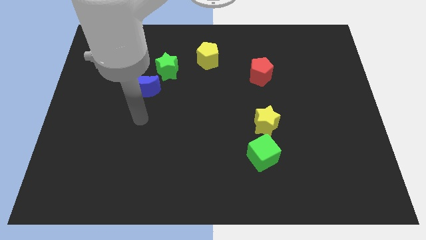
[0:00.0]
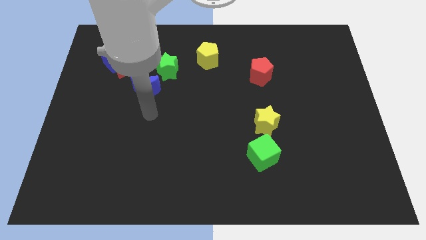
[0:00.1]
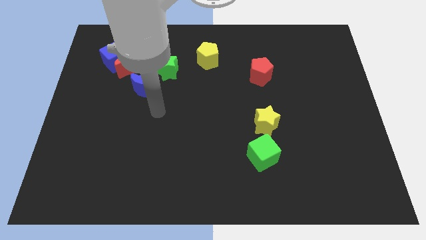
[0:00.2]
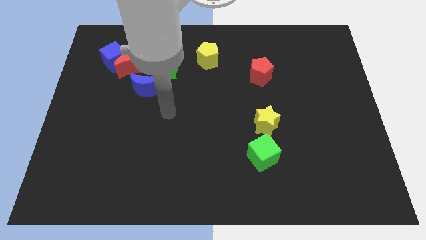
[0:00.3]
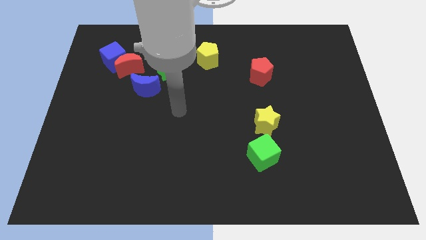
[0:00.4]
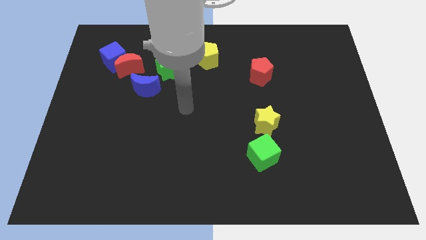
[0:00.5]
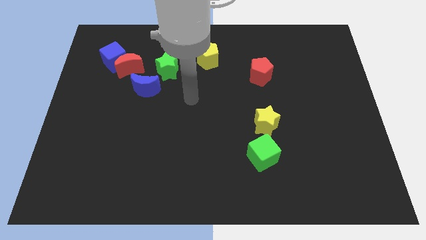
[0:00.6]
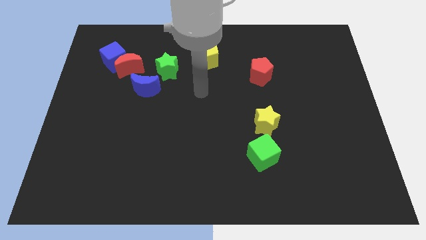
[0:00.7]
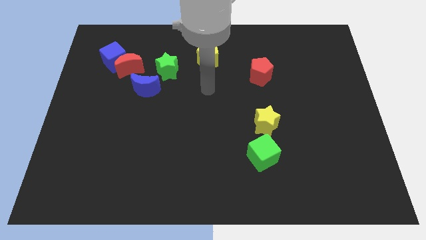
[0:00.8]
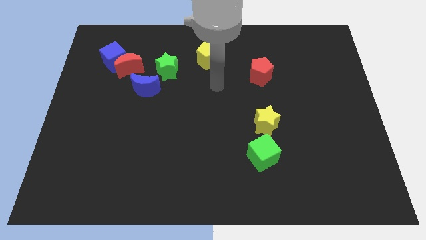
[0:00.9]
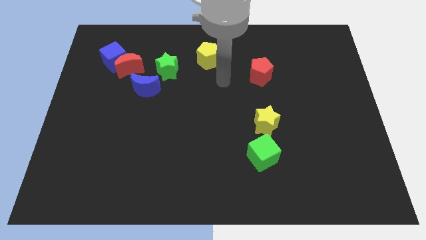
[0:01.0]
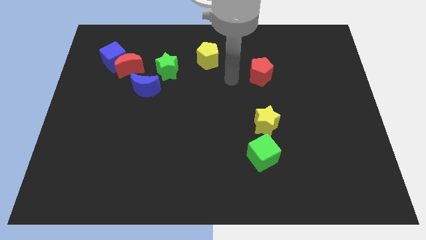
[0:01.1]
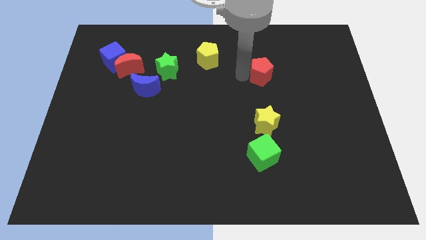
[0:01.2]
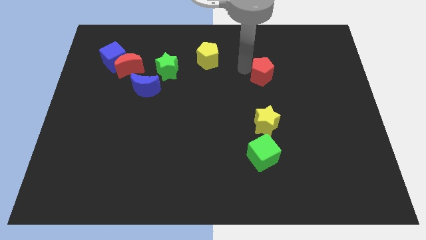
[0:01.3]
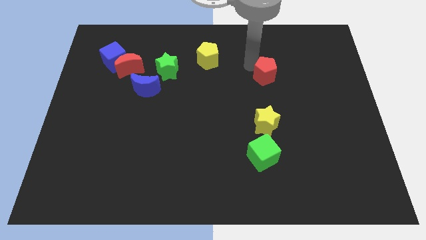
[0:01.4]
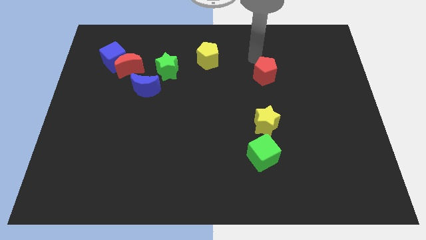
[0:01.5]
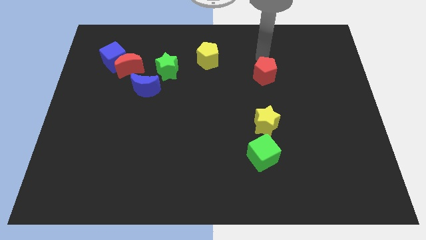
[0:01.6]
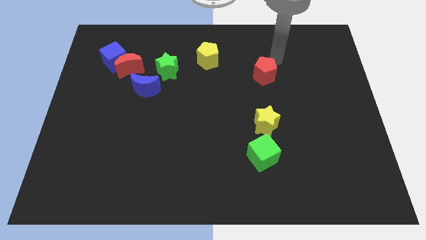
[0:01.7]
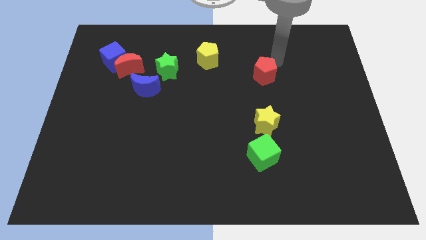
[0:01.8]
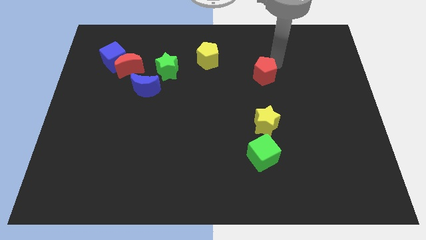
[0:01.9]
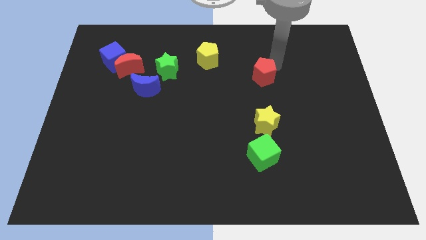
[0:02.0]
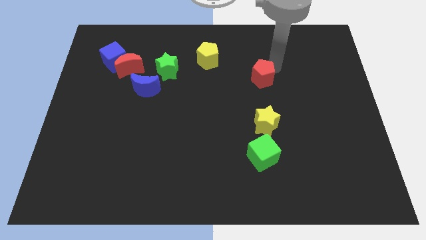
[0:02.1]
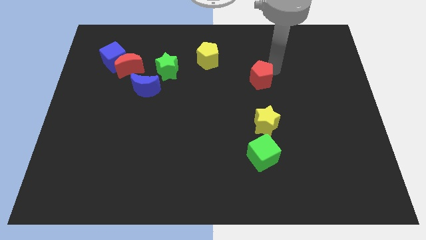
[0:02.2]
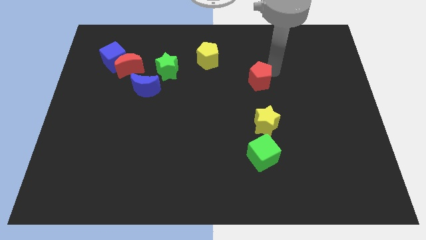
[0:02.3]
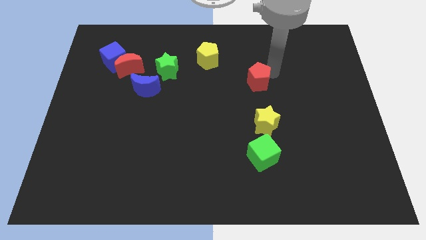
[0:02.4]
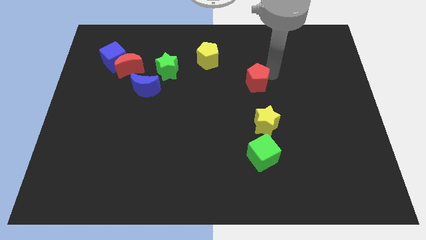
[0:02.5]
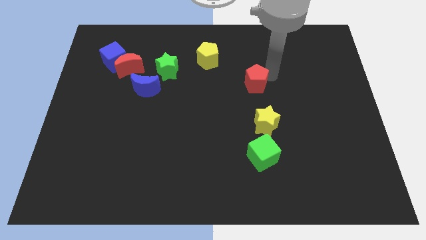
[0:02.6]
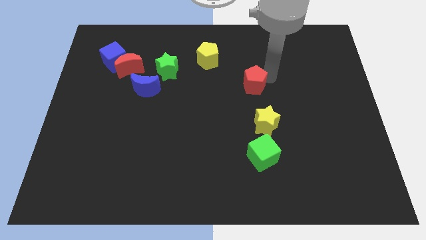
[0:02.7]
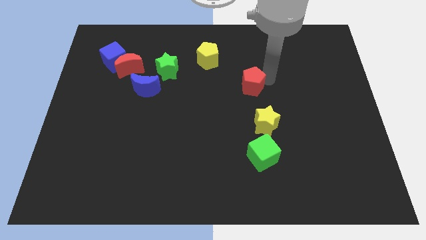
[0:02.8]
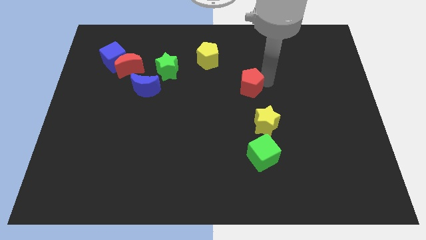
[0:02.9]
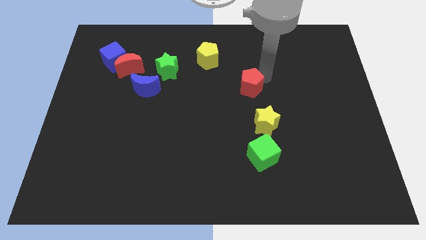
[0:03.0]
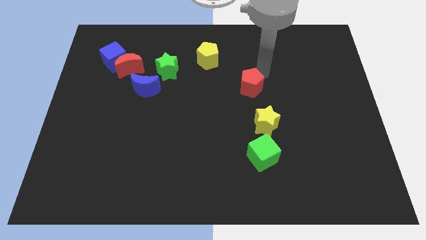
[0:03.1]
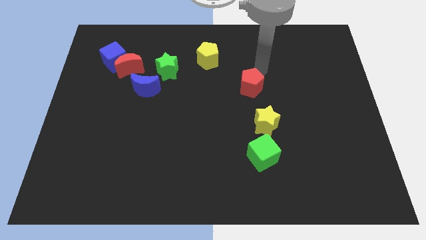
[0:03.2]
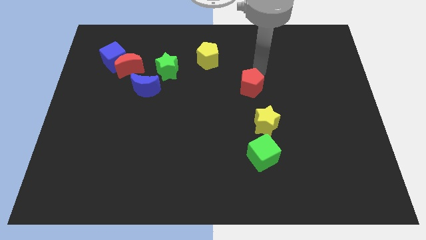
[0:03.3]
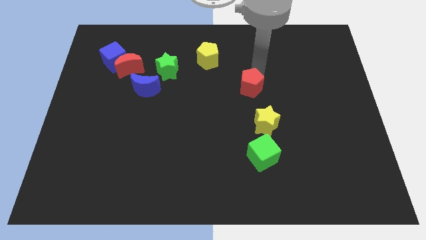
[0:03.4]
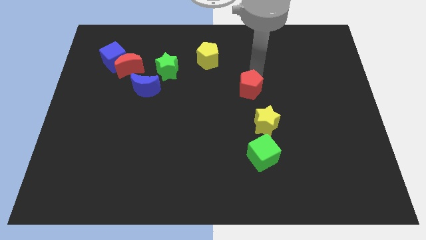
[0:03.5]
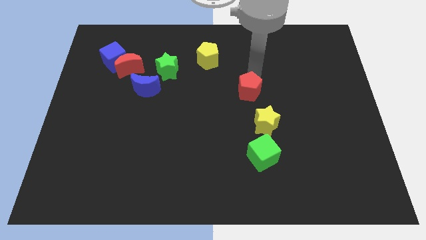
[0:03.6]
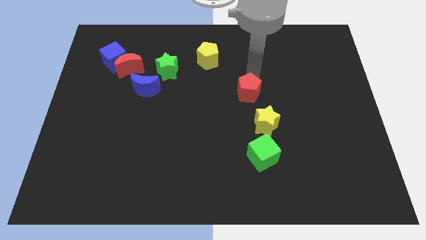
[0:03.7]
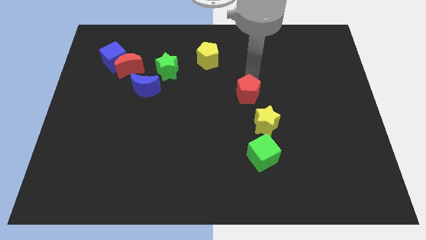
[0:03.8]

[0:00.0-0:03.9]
move the red pentagon diagonally down and to the left somewhat

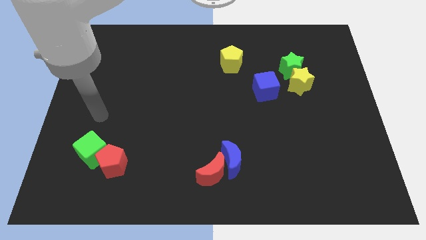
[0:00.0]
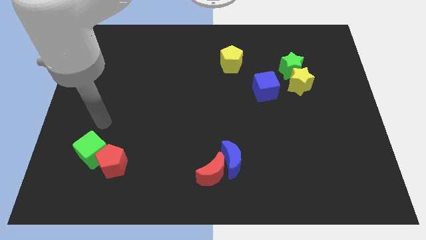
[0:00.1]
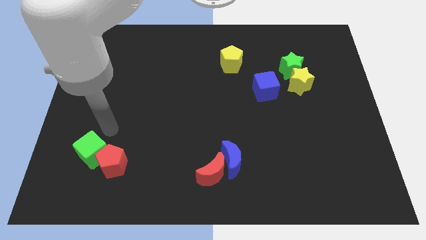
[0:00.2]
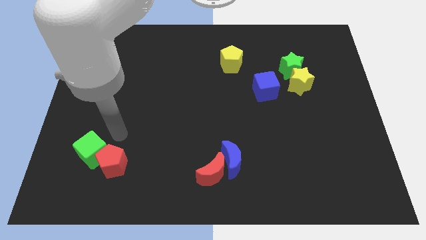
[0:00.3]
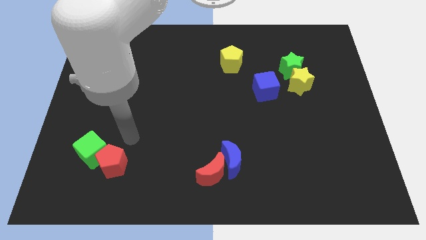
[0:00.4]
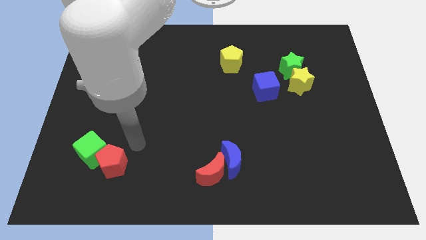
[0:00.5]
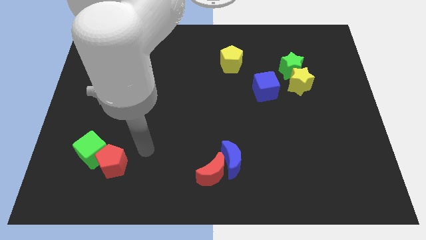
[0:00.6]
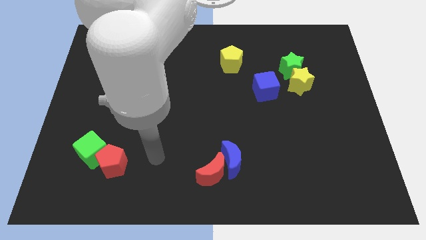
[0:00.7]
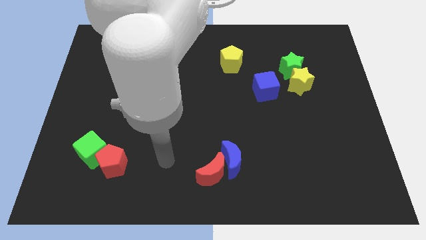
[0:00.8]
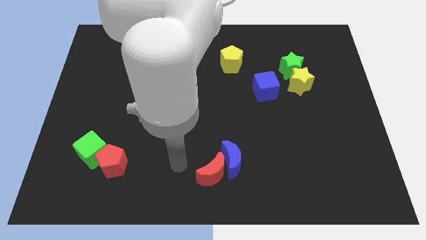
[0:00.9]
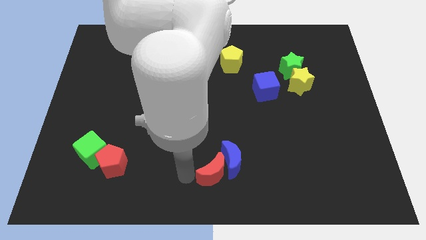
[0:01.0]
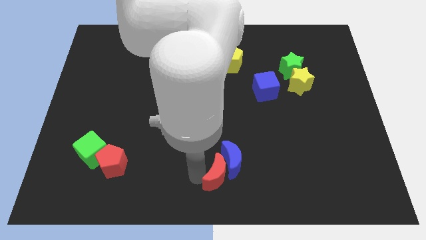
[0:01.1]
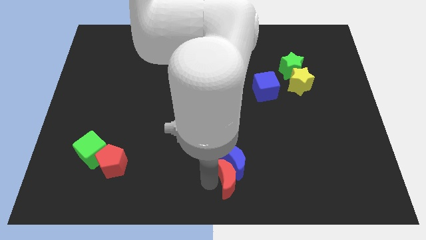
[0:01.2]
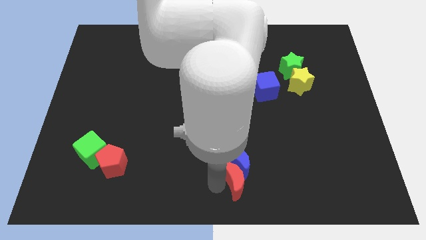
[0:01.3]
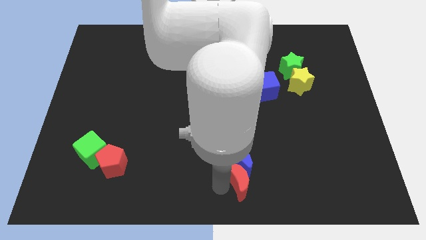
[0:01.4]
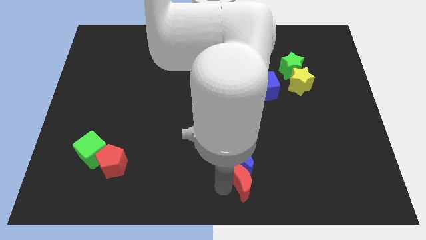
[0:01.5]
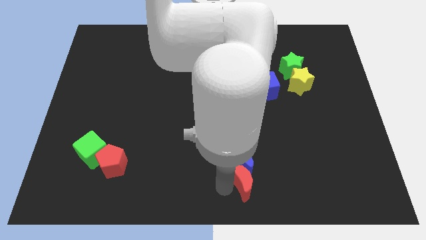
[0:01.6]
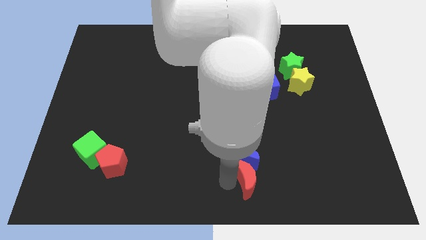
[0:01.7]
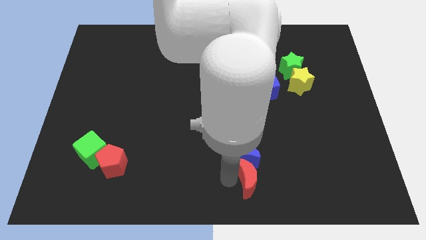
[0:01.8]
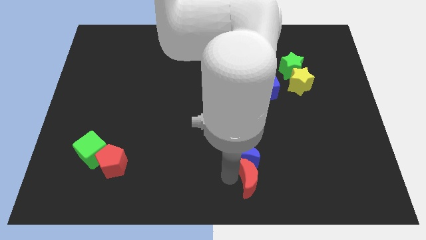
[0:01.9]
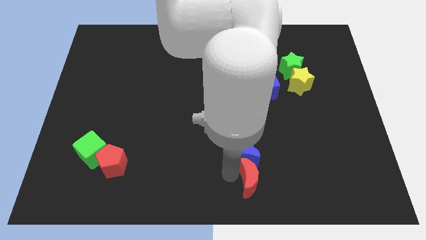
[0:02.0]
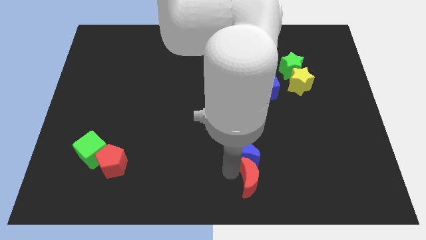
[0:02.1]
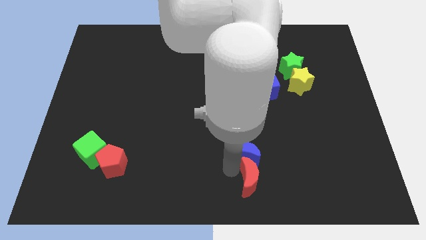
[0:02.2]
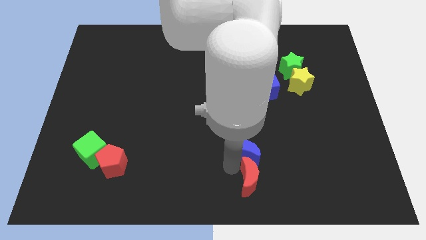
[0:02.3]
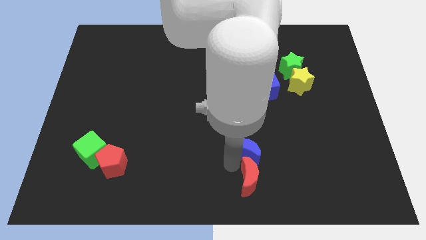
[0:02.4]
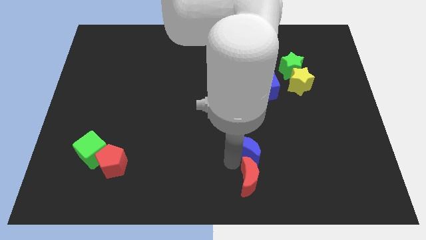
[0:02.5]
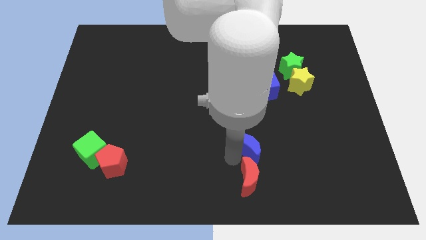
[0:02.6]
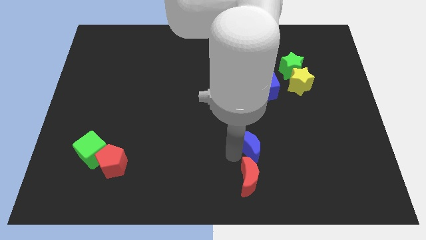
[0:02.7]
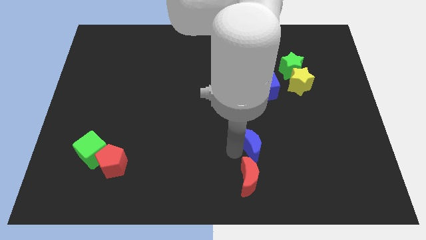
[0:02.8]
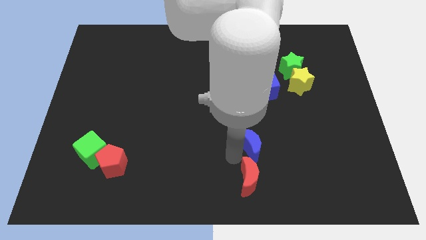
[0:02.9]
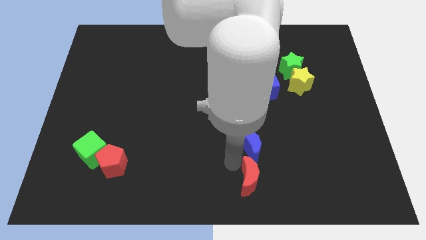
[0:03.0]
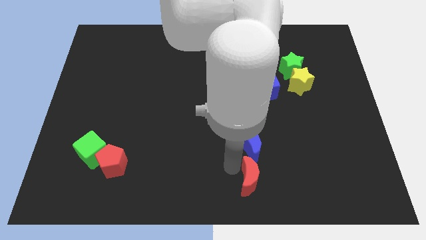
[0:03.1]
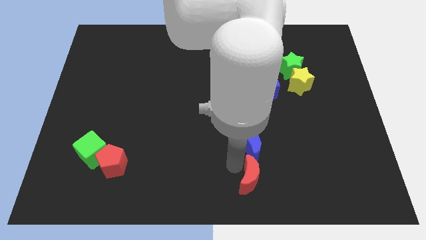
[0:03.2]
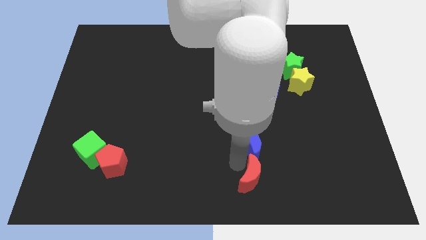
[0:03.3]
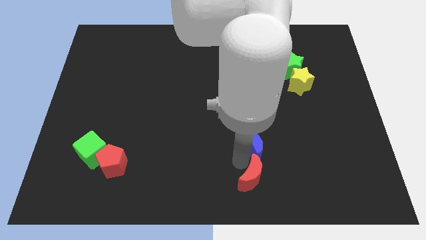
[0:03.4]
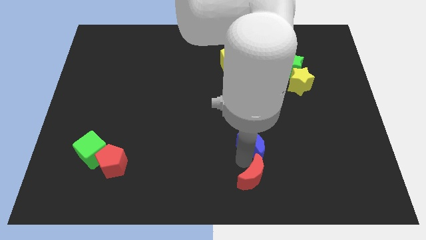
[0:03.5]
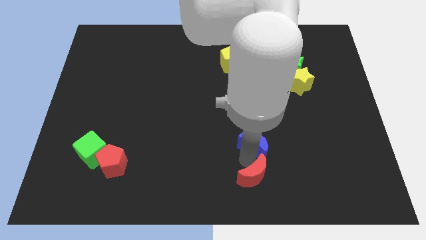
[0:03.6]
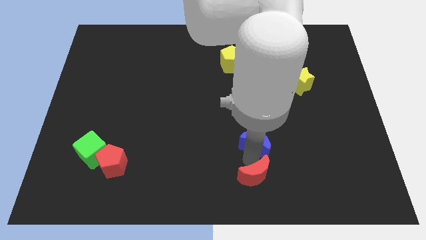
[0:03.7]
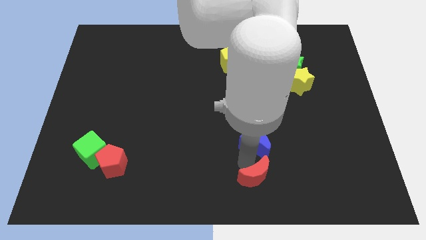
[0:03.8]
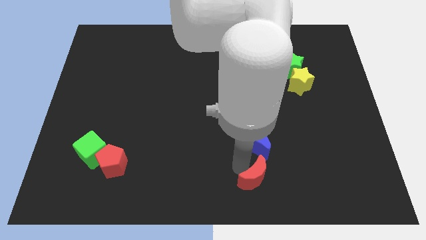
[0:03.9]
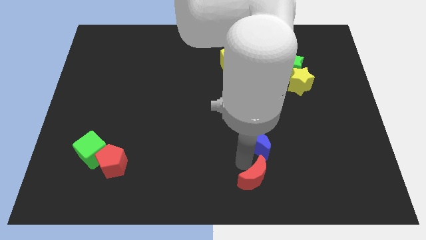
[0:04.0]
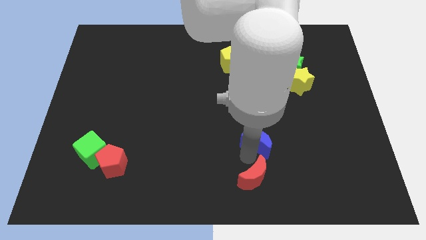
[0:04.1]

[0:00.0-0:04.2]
move the blue moon a little upwards and then to the right
